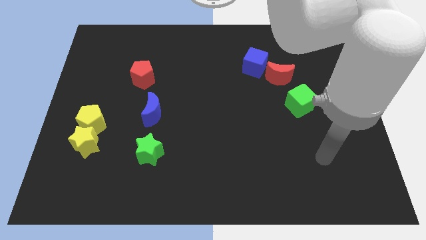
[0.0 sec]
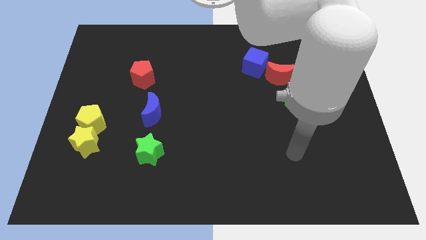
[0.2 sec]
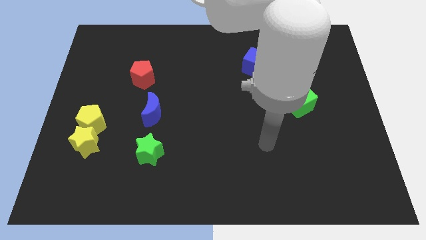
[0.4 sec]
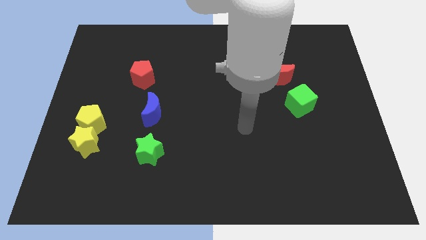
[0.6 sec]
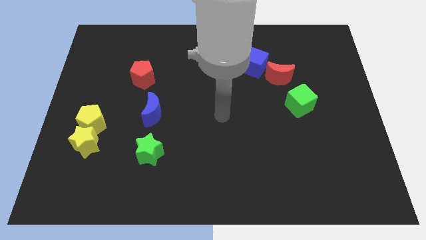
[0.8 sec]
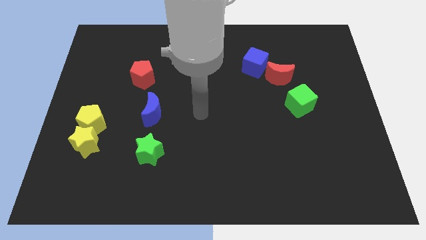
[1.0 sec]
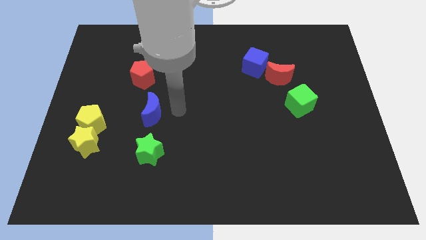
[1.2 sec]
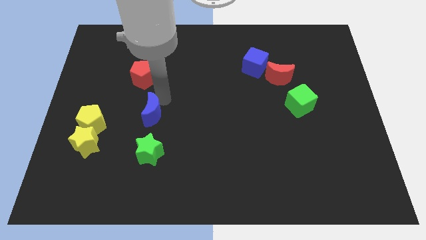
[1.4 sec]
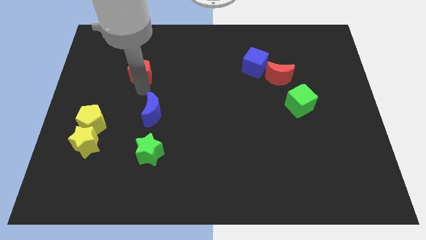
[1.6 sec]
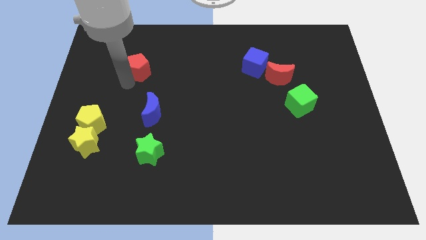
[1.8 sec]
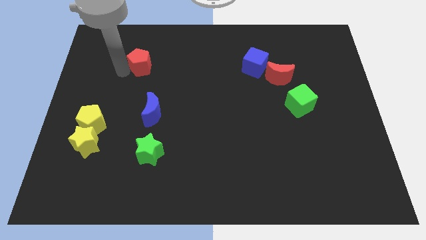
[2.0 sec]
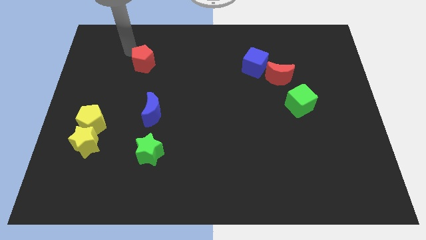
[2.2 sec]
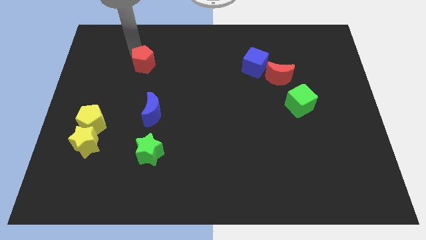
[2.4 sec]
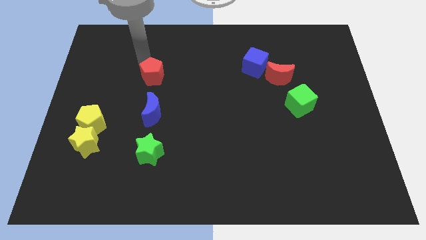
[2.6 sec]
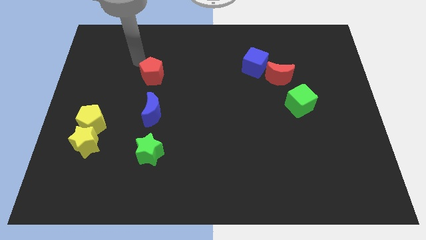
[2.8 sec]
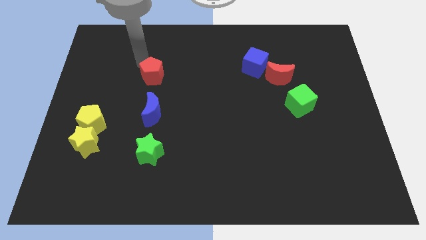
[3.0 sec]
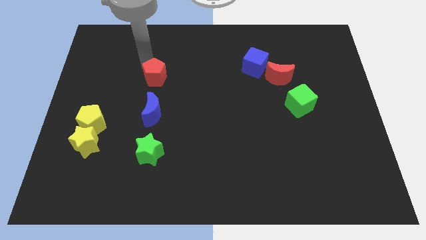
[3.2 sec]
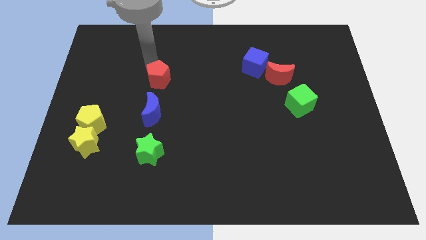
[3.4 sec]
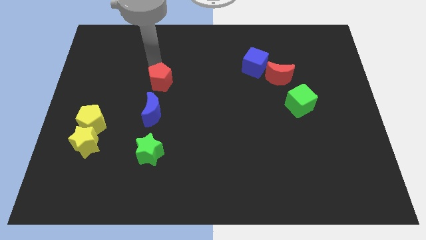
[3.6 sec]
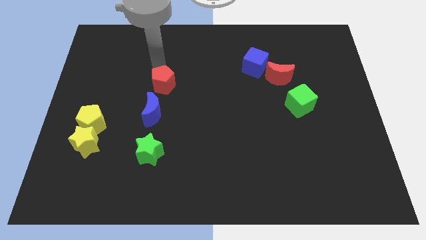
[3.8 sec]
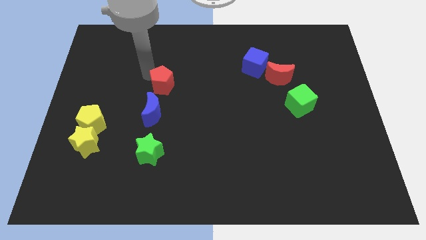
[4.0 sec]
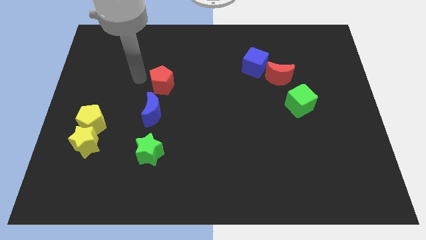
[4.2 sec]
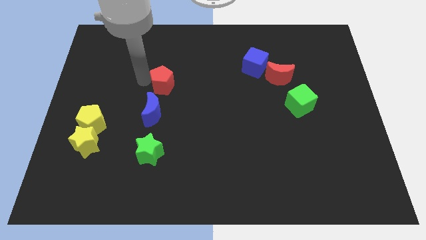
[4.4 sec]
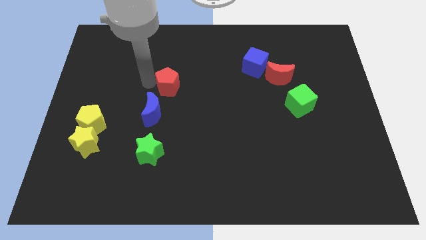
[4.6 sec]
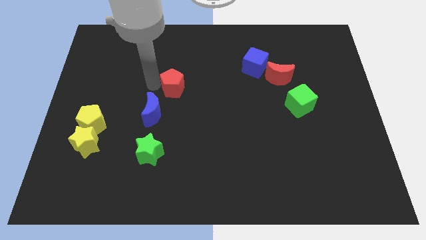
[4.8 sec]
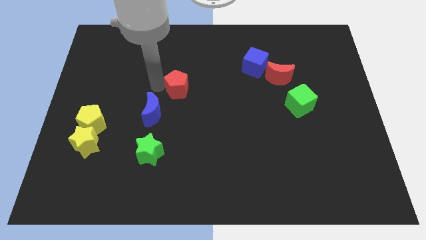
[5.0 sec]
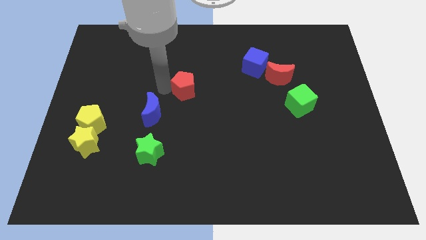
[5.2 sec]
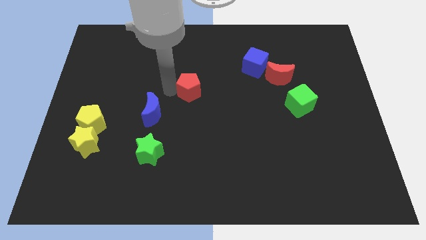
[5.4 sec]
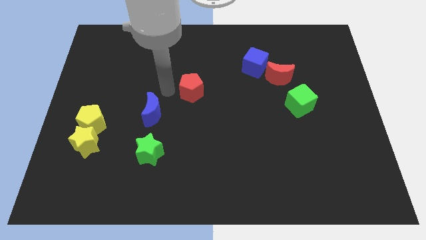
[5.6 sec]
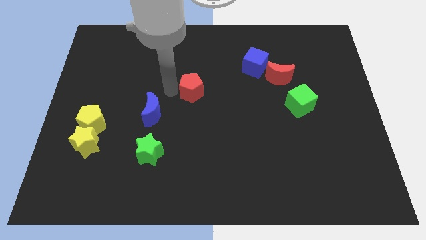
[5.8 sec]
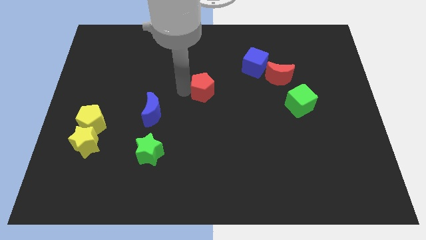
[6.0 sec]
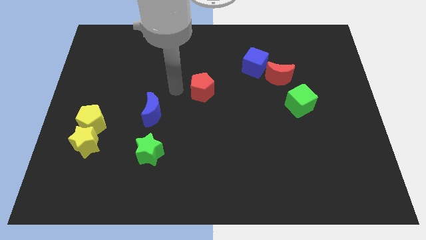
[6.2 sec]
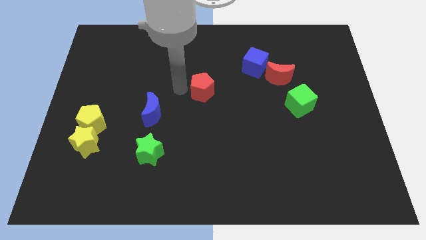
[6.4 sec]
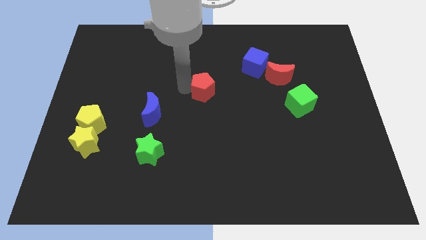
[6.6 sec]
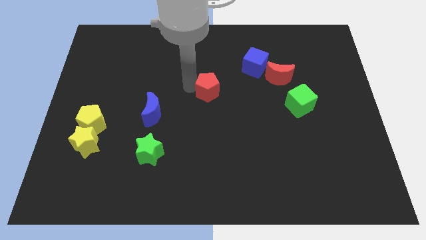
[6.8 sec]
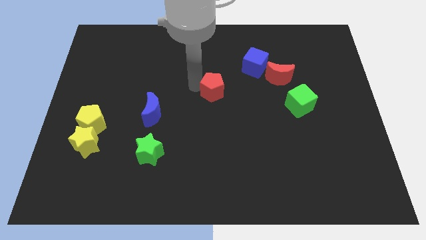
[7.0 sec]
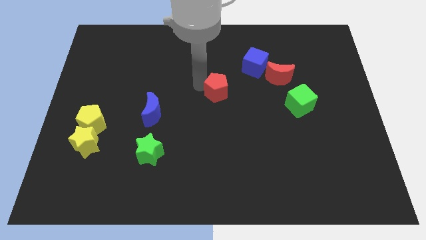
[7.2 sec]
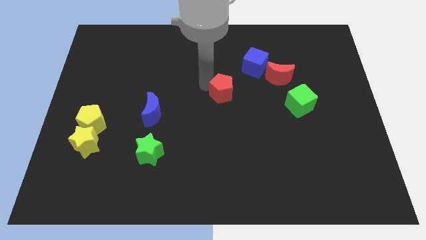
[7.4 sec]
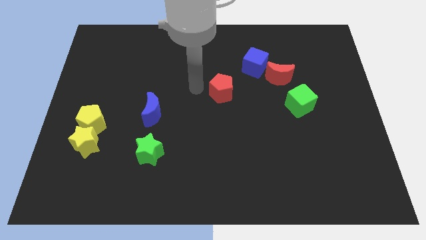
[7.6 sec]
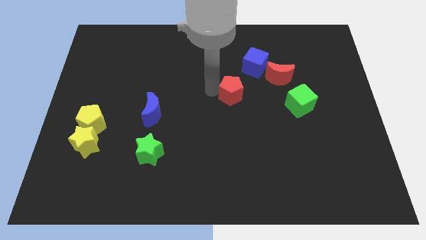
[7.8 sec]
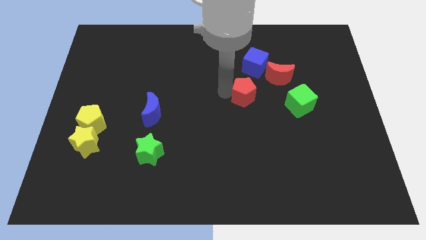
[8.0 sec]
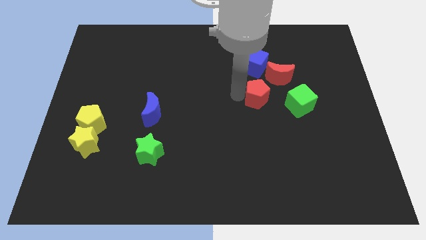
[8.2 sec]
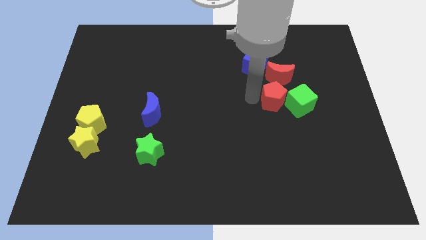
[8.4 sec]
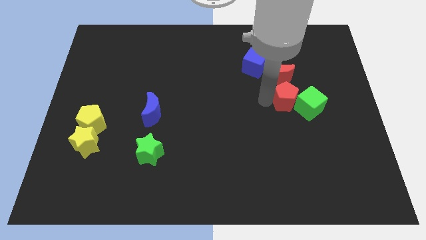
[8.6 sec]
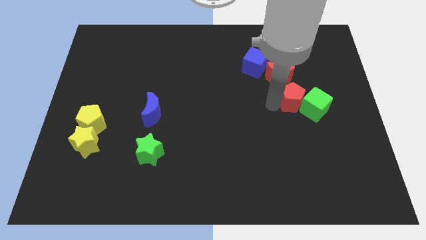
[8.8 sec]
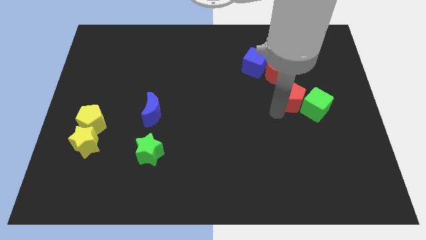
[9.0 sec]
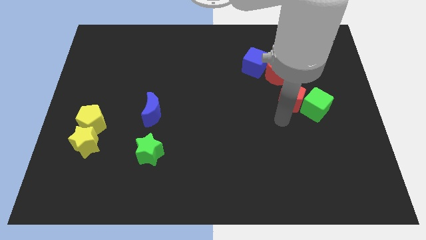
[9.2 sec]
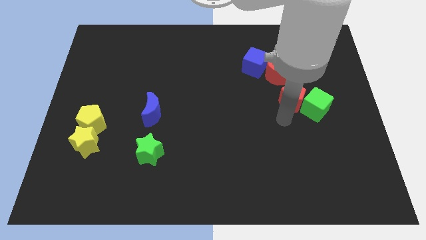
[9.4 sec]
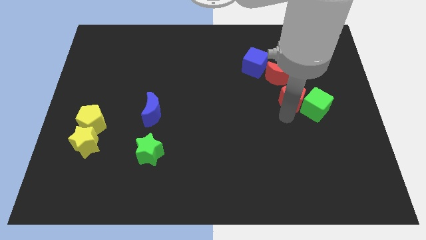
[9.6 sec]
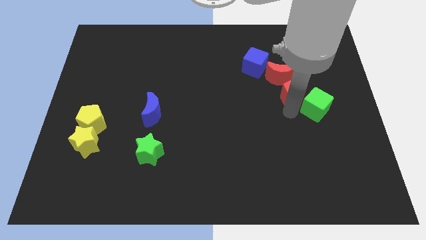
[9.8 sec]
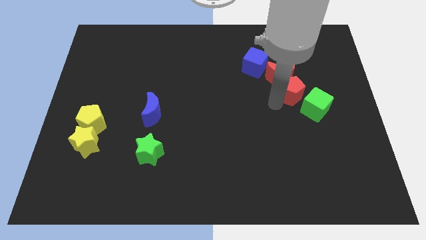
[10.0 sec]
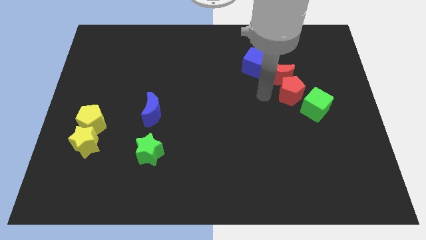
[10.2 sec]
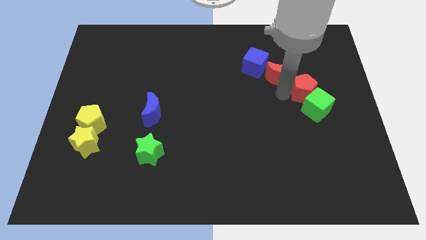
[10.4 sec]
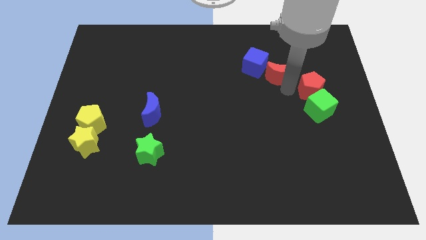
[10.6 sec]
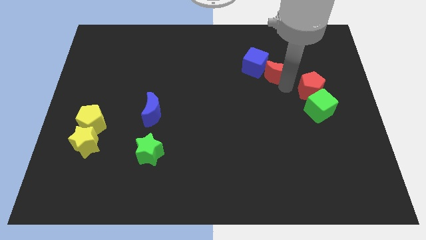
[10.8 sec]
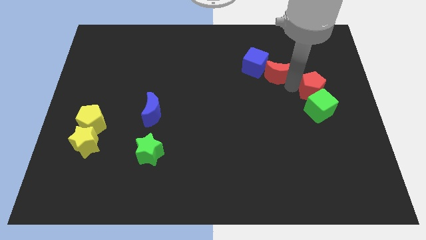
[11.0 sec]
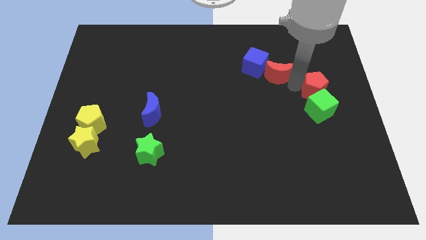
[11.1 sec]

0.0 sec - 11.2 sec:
put the red pentagon to the top right side of the green cube

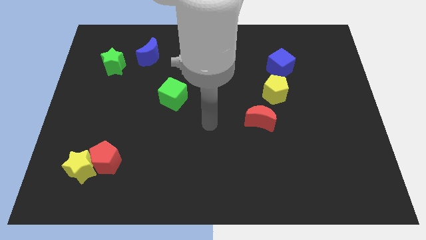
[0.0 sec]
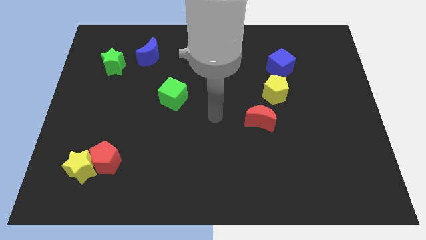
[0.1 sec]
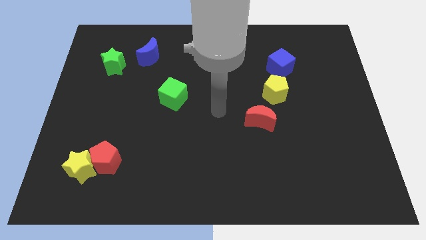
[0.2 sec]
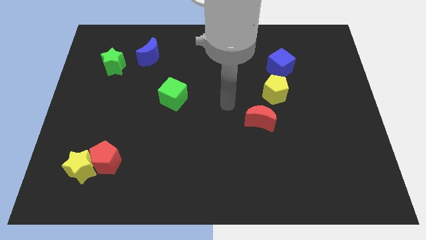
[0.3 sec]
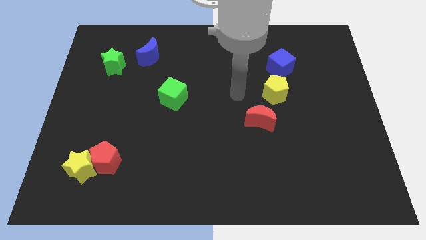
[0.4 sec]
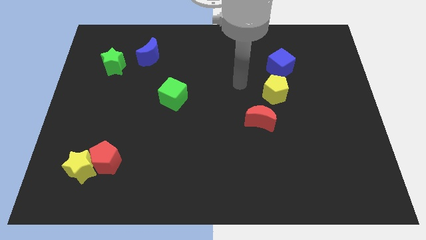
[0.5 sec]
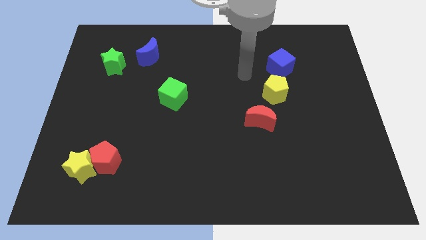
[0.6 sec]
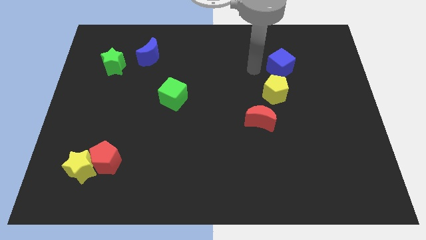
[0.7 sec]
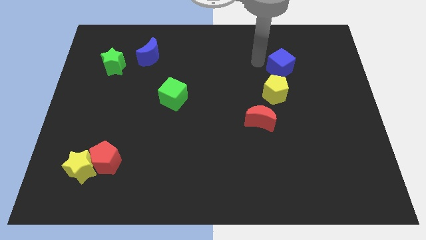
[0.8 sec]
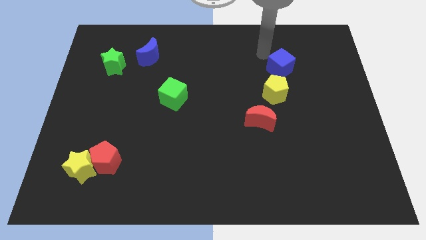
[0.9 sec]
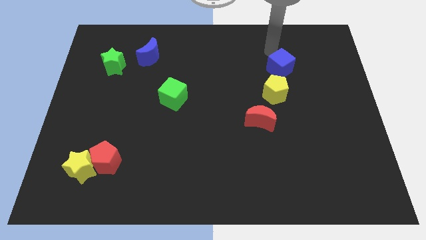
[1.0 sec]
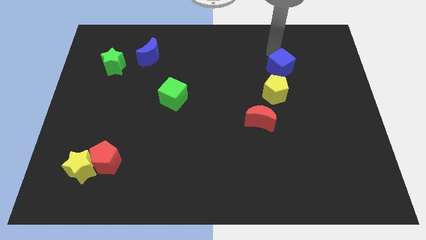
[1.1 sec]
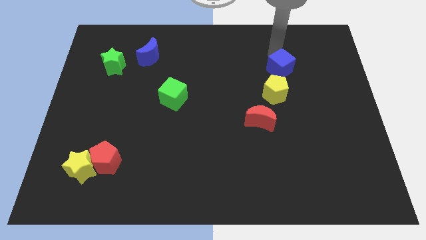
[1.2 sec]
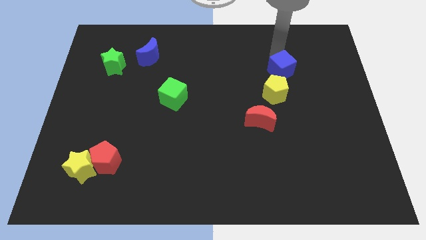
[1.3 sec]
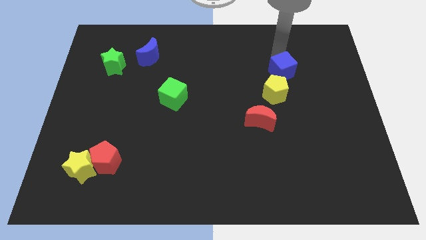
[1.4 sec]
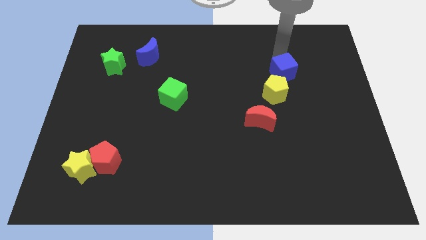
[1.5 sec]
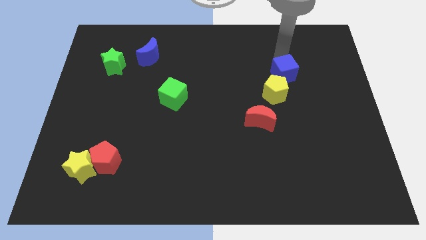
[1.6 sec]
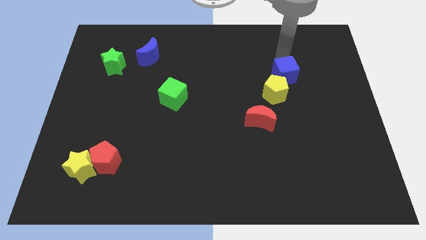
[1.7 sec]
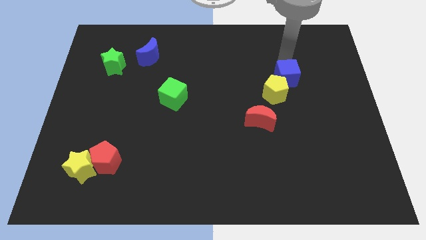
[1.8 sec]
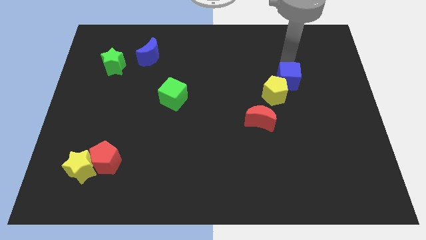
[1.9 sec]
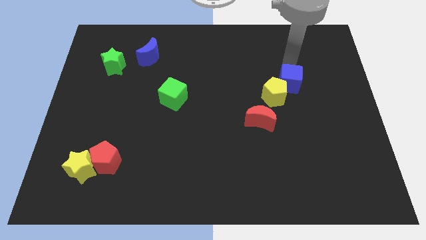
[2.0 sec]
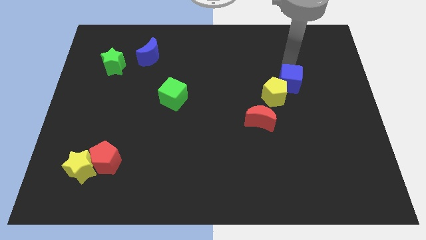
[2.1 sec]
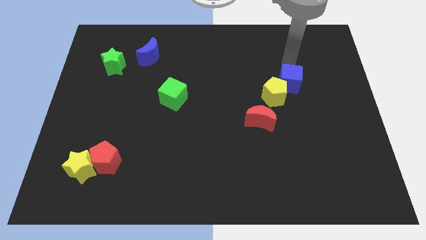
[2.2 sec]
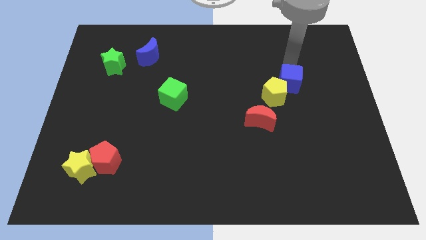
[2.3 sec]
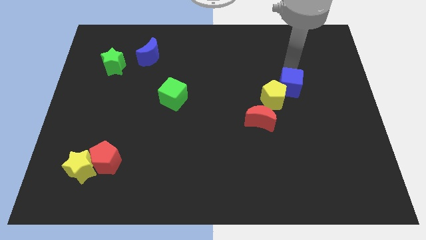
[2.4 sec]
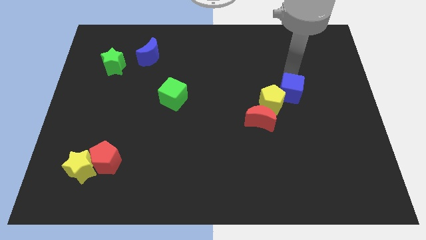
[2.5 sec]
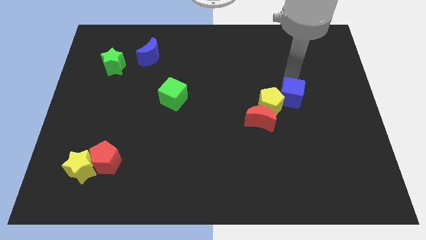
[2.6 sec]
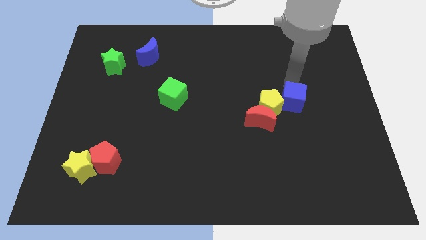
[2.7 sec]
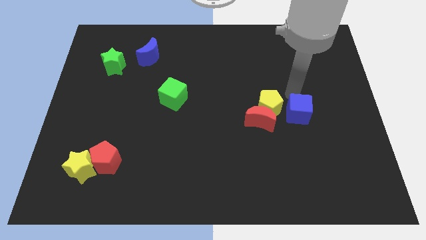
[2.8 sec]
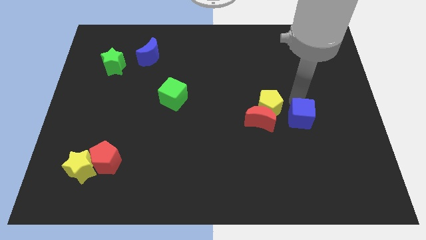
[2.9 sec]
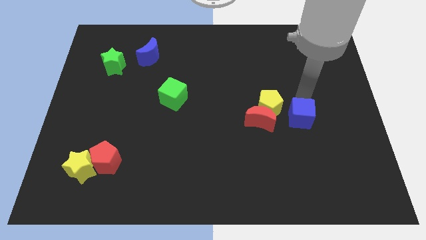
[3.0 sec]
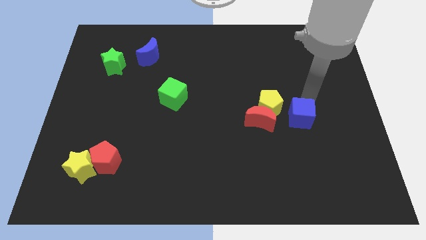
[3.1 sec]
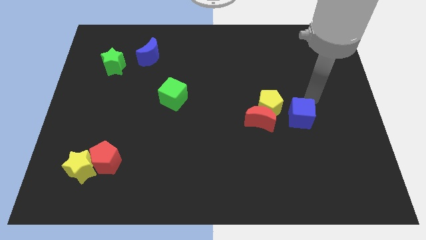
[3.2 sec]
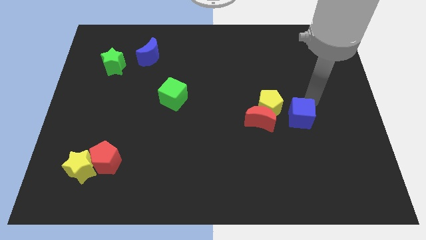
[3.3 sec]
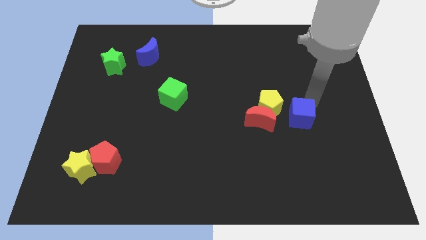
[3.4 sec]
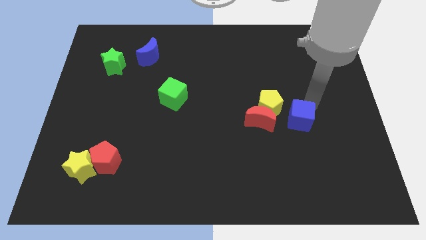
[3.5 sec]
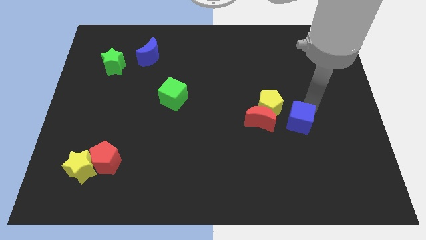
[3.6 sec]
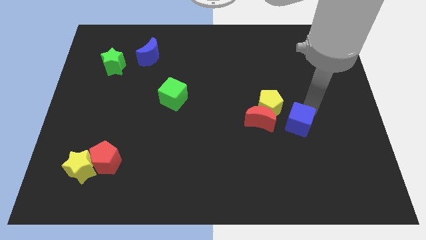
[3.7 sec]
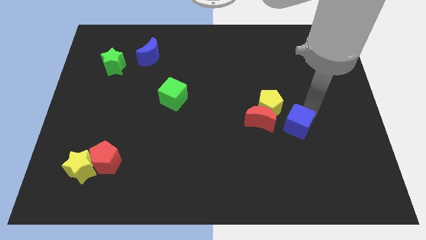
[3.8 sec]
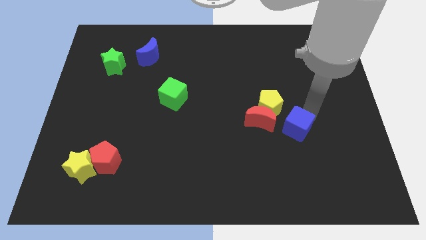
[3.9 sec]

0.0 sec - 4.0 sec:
slide the blue cube to the bottom right of the red moon
